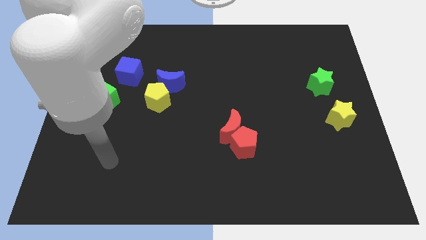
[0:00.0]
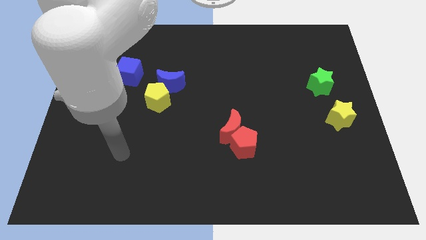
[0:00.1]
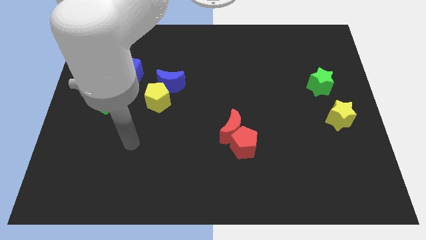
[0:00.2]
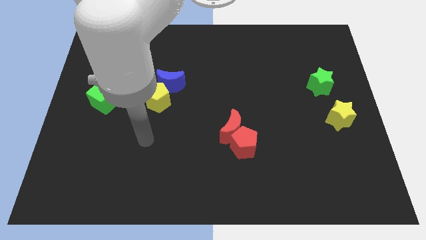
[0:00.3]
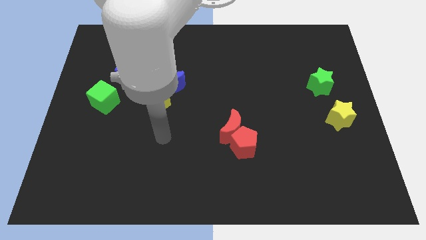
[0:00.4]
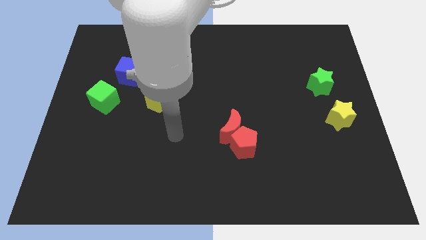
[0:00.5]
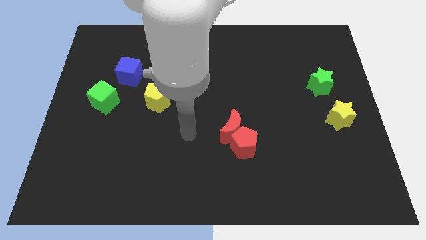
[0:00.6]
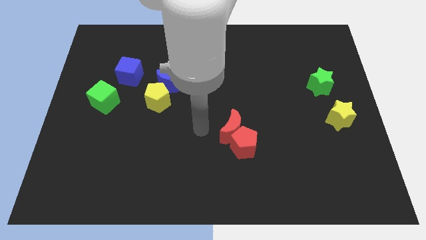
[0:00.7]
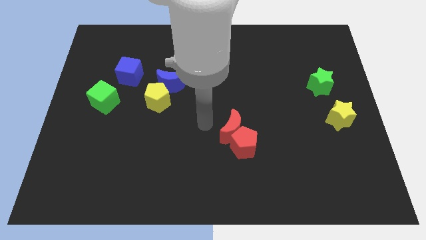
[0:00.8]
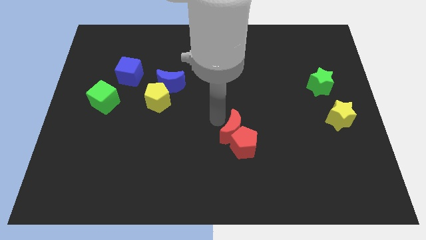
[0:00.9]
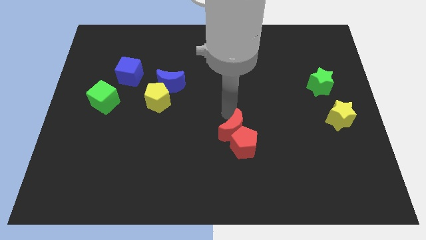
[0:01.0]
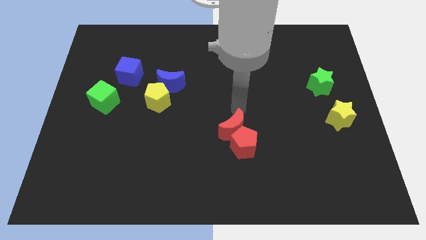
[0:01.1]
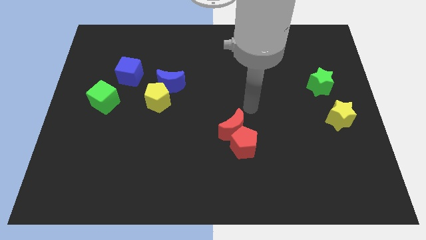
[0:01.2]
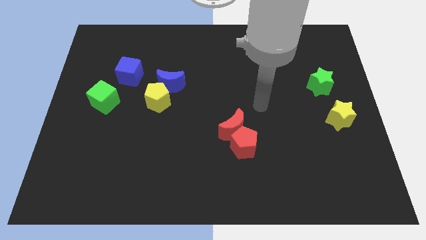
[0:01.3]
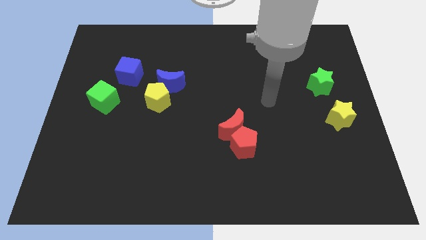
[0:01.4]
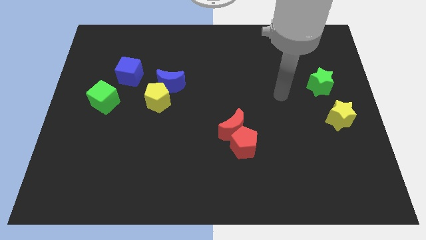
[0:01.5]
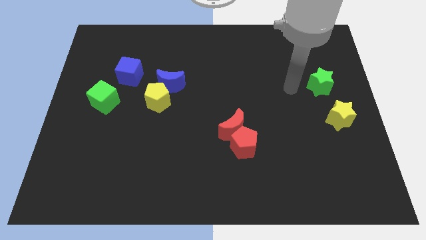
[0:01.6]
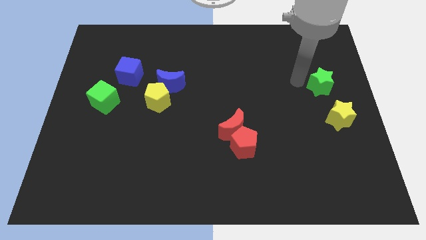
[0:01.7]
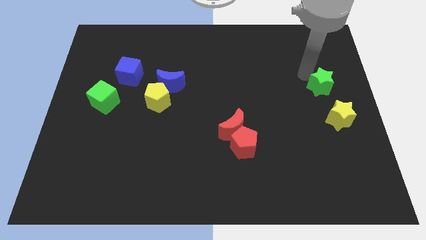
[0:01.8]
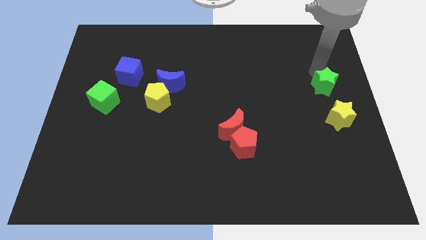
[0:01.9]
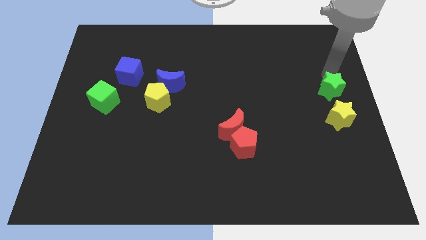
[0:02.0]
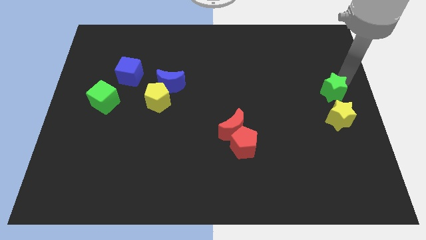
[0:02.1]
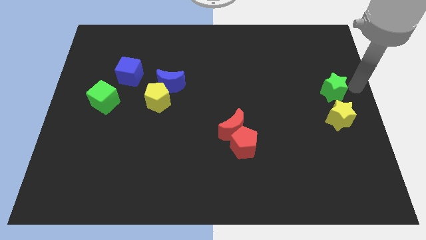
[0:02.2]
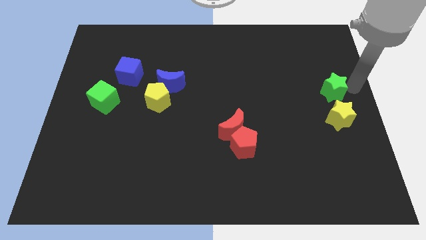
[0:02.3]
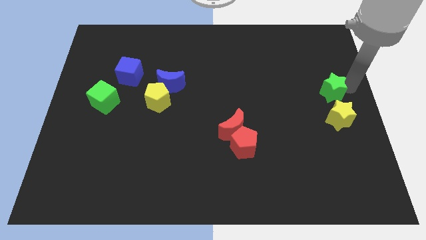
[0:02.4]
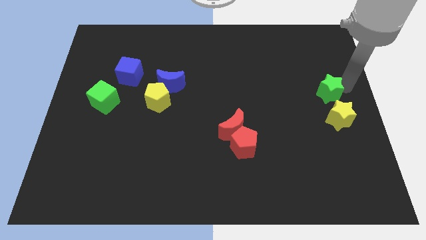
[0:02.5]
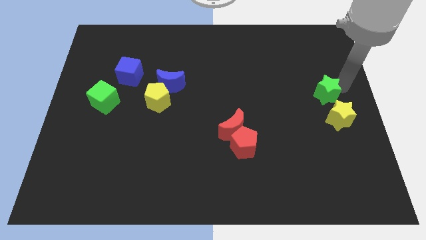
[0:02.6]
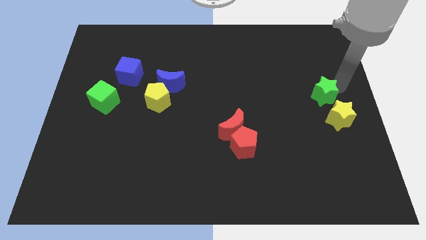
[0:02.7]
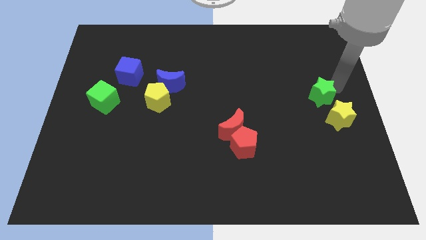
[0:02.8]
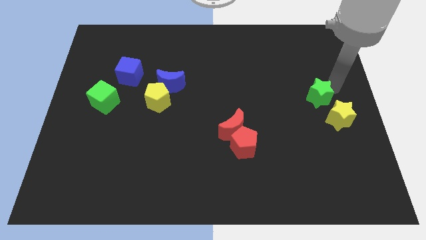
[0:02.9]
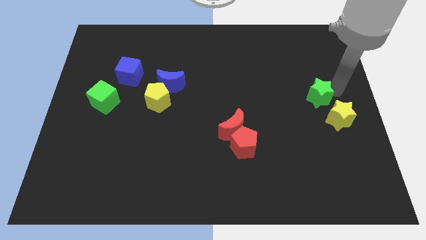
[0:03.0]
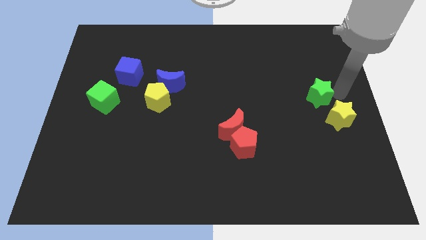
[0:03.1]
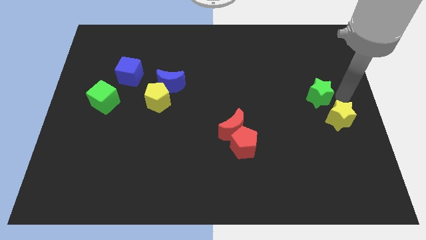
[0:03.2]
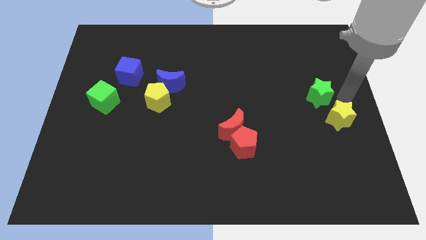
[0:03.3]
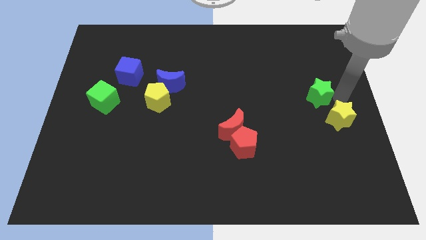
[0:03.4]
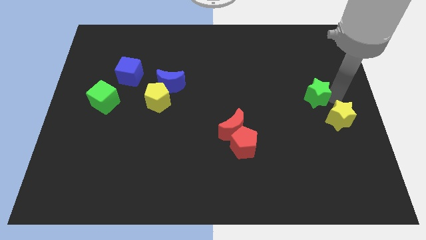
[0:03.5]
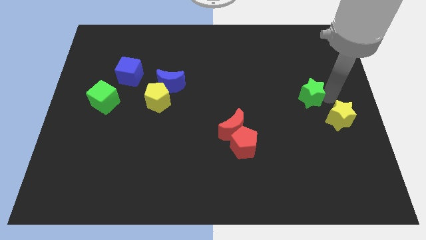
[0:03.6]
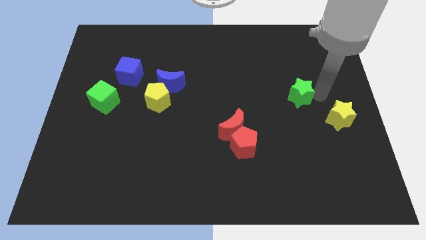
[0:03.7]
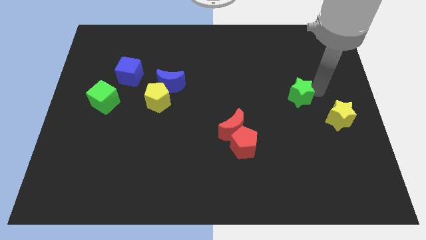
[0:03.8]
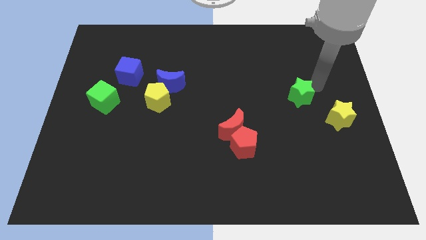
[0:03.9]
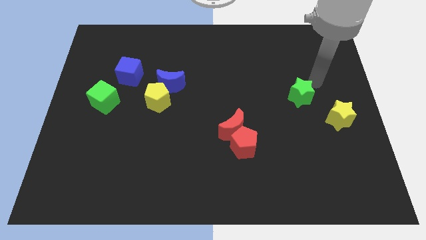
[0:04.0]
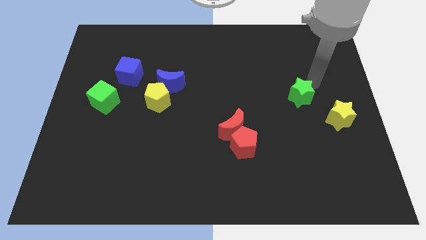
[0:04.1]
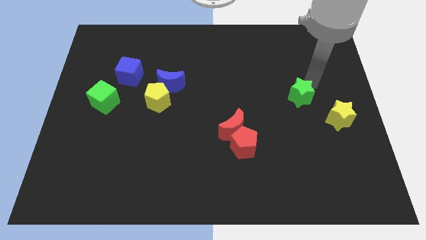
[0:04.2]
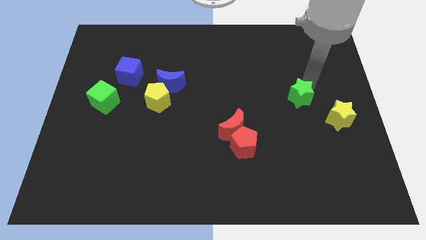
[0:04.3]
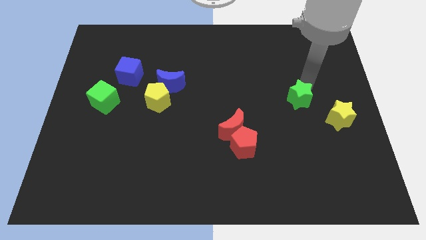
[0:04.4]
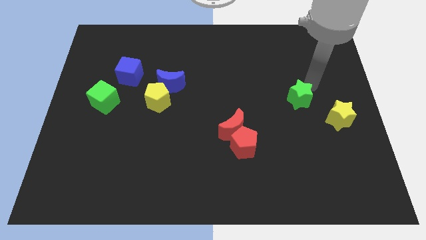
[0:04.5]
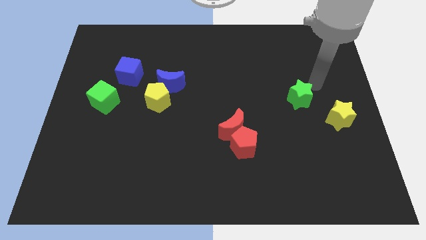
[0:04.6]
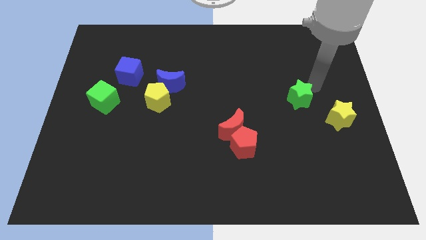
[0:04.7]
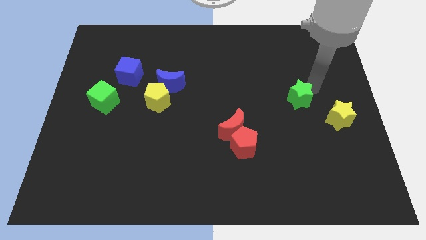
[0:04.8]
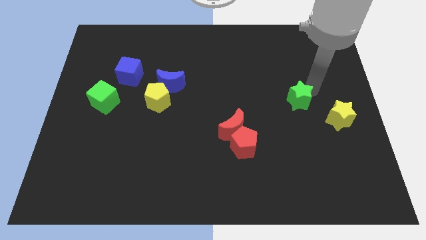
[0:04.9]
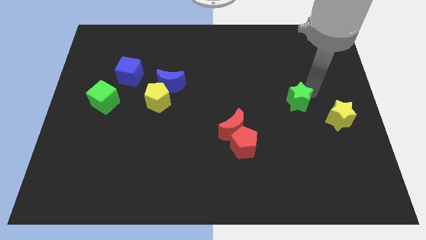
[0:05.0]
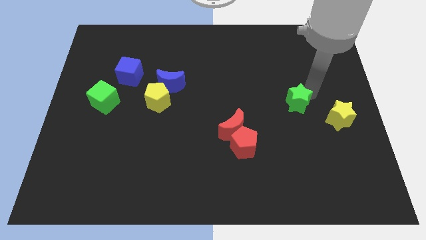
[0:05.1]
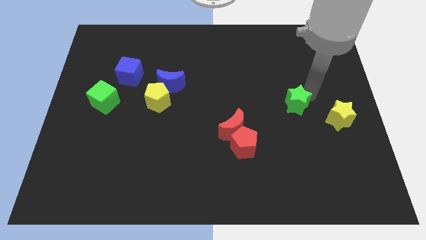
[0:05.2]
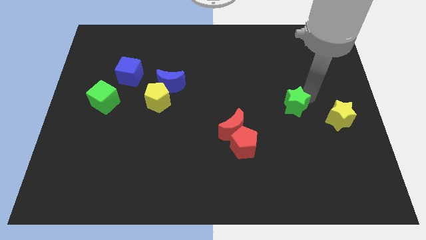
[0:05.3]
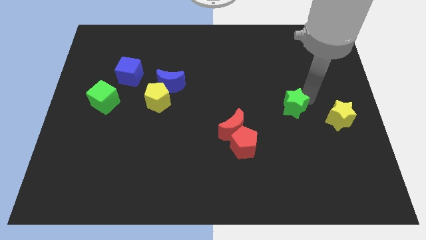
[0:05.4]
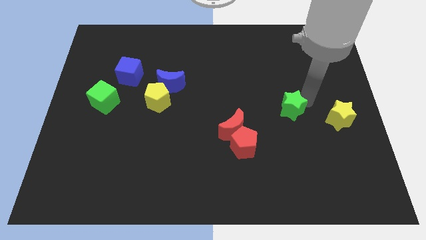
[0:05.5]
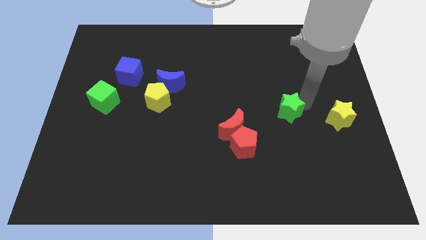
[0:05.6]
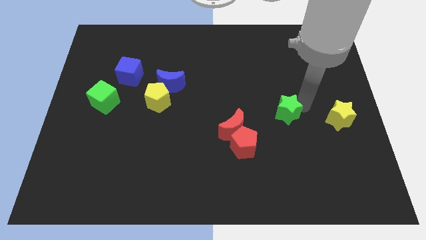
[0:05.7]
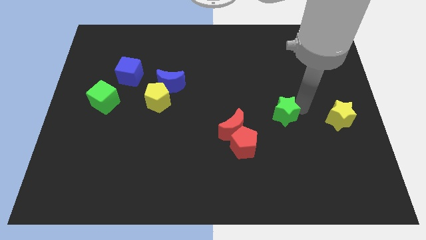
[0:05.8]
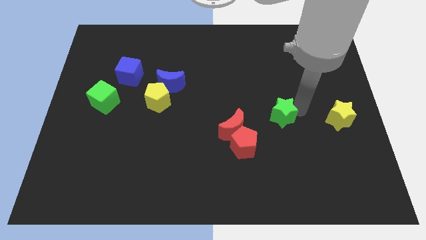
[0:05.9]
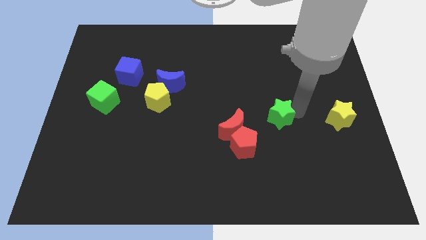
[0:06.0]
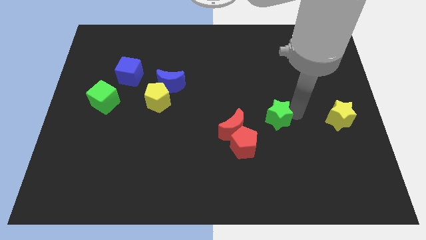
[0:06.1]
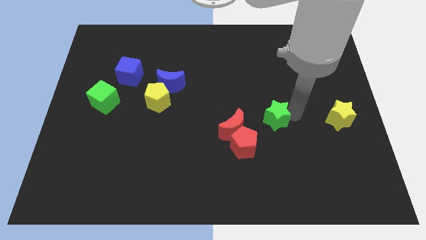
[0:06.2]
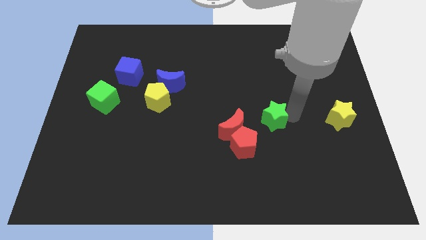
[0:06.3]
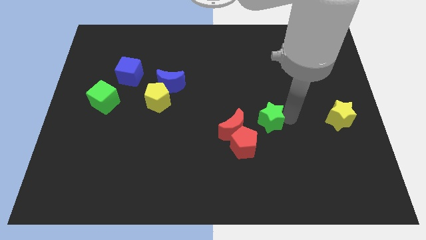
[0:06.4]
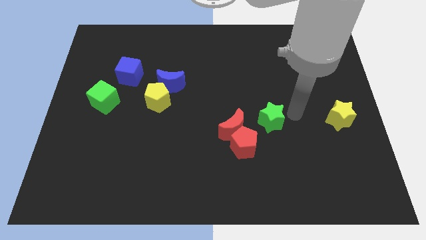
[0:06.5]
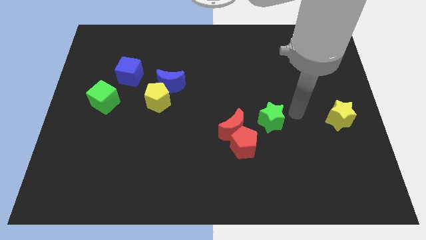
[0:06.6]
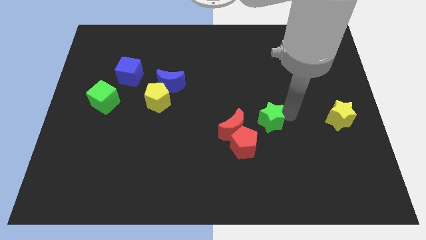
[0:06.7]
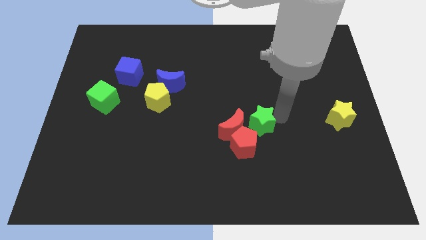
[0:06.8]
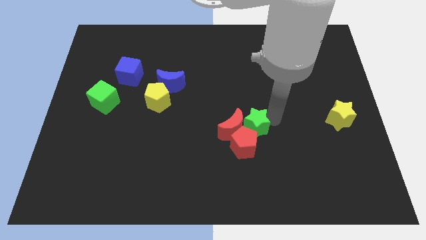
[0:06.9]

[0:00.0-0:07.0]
move the green star next to the red moon
